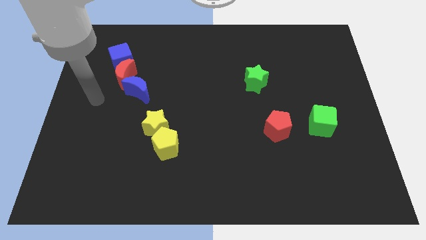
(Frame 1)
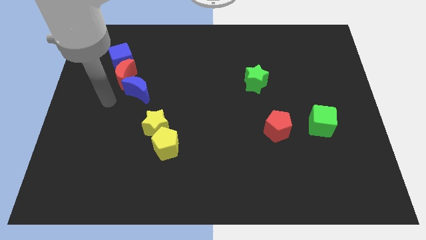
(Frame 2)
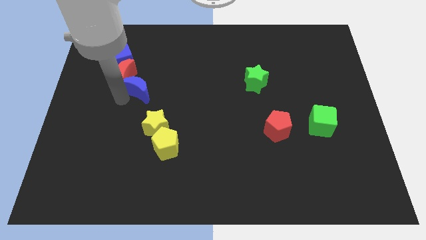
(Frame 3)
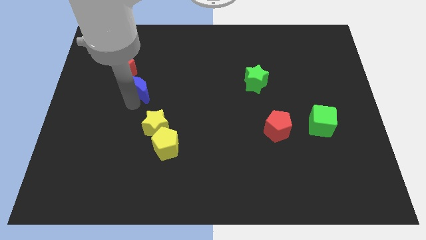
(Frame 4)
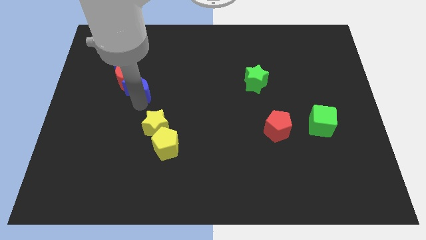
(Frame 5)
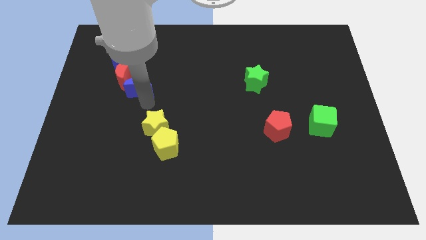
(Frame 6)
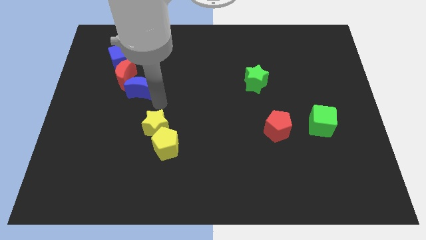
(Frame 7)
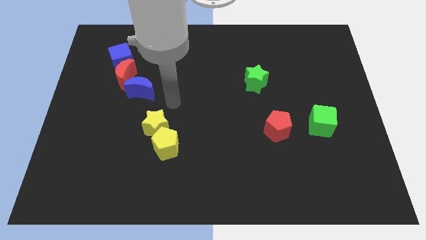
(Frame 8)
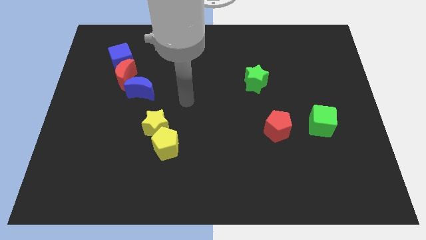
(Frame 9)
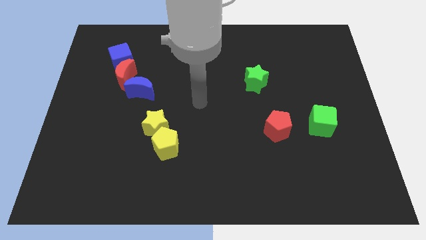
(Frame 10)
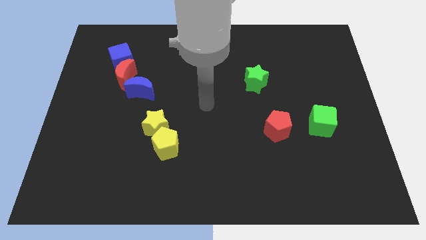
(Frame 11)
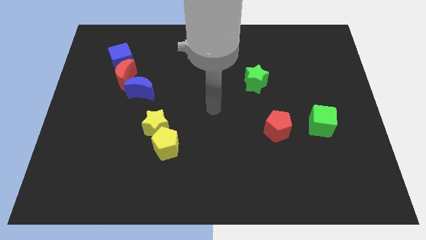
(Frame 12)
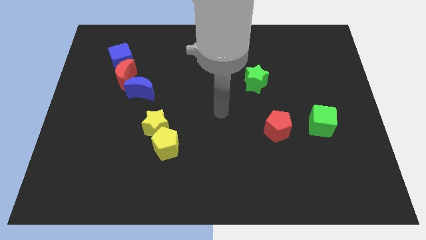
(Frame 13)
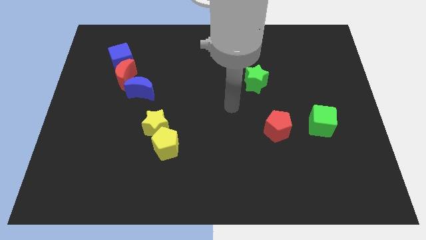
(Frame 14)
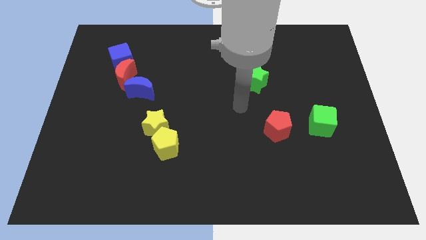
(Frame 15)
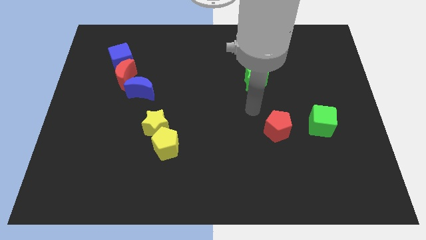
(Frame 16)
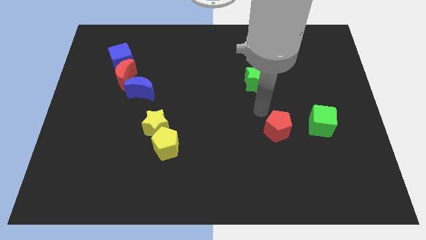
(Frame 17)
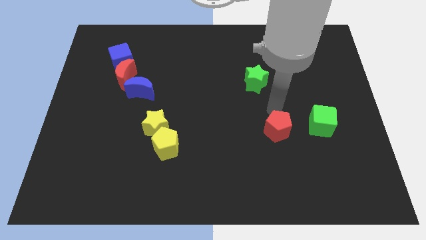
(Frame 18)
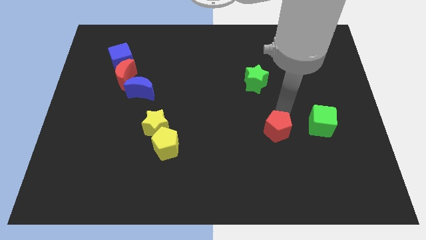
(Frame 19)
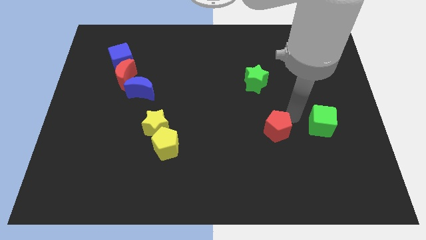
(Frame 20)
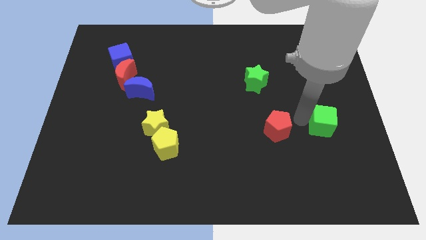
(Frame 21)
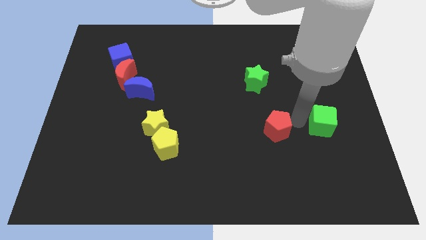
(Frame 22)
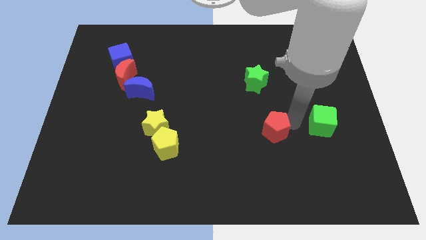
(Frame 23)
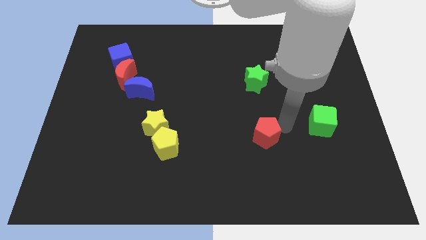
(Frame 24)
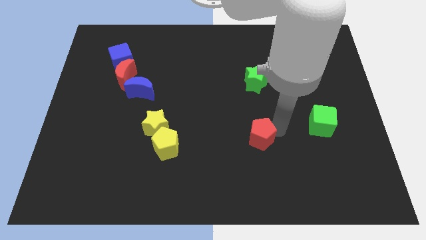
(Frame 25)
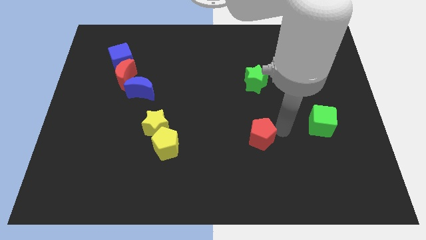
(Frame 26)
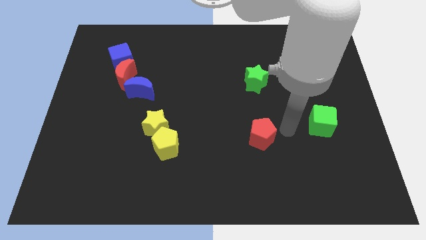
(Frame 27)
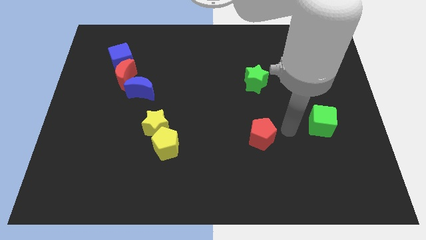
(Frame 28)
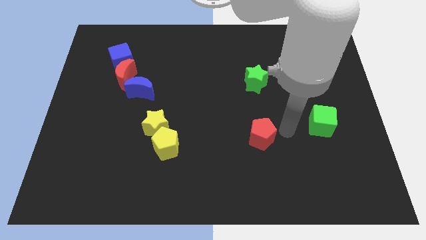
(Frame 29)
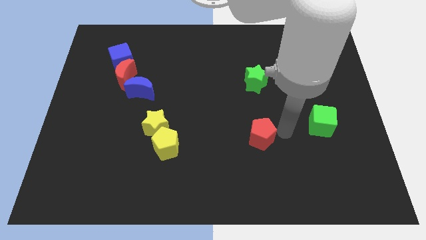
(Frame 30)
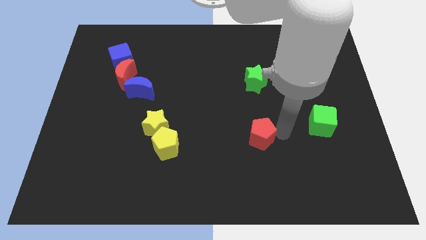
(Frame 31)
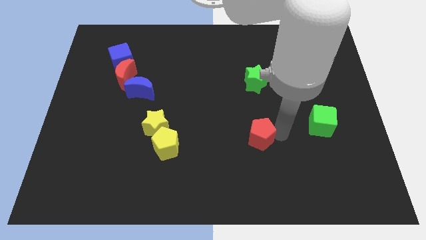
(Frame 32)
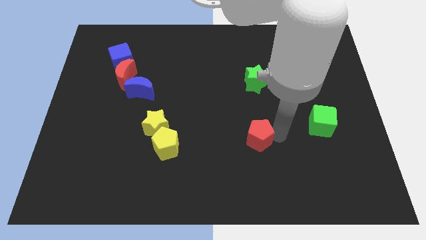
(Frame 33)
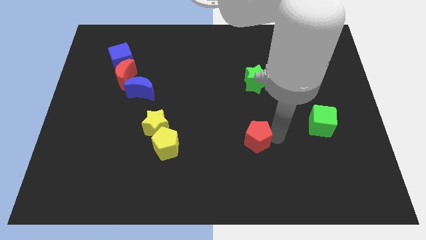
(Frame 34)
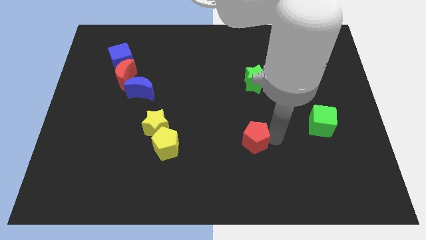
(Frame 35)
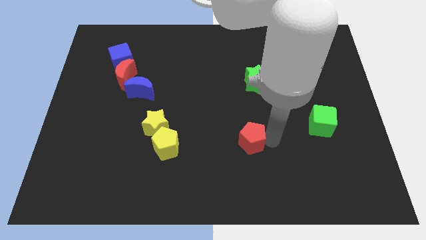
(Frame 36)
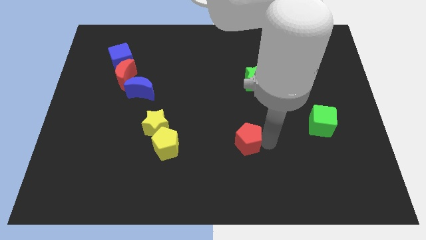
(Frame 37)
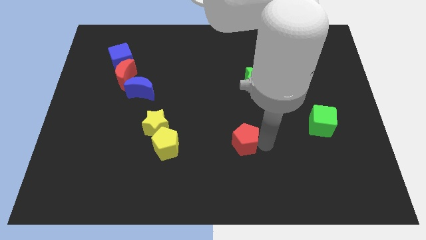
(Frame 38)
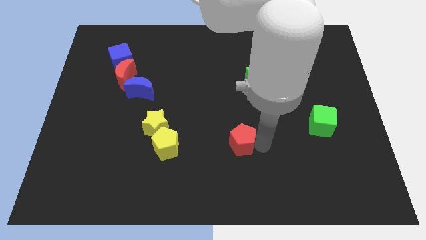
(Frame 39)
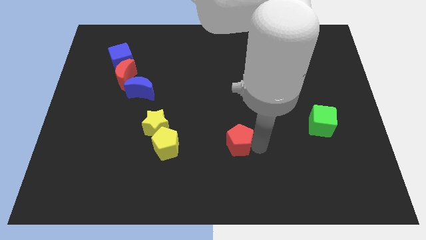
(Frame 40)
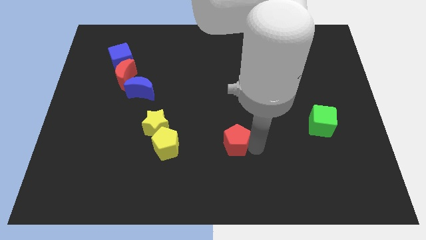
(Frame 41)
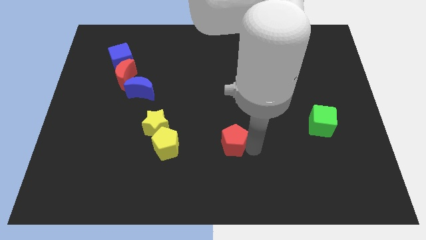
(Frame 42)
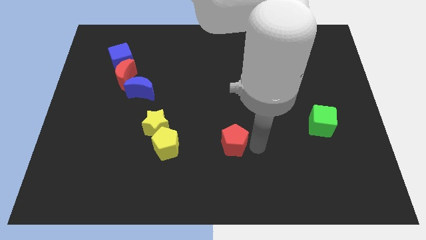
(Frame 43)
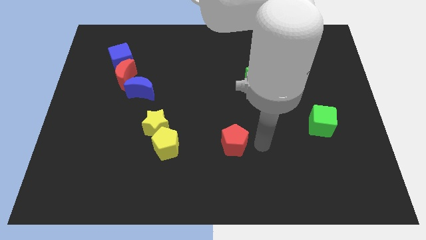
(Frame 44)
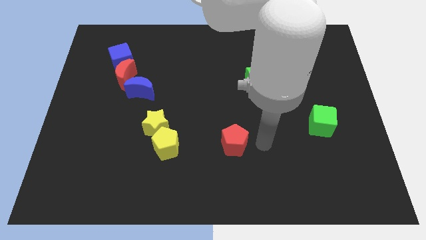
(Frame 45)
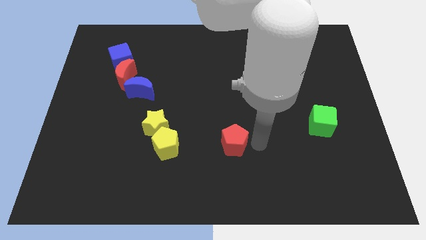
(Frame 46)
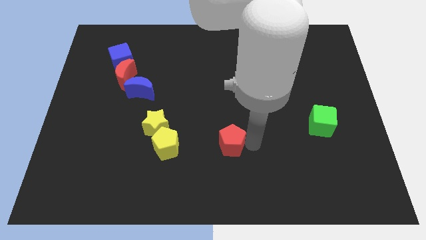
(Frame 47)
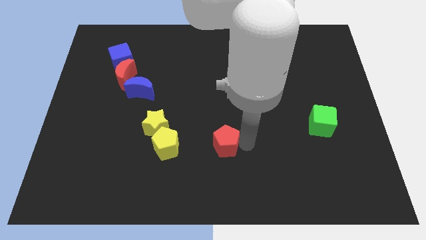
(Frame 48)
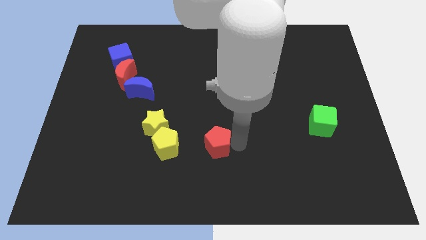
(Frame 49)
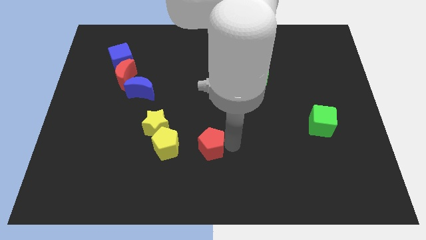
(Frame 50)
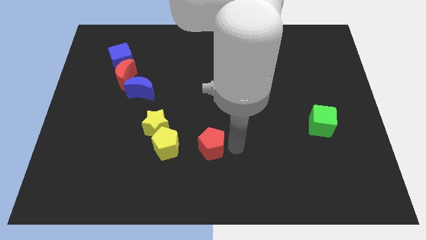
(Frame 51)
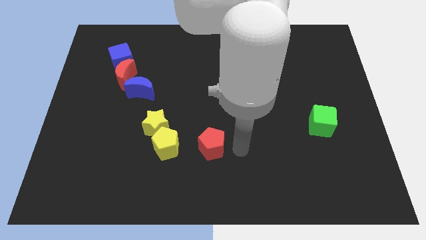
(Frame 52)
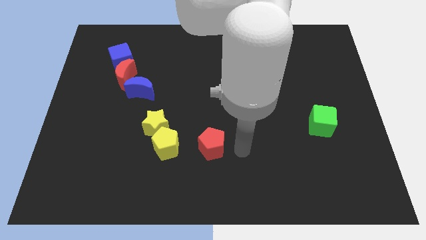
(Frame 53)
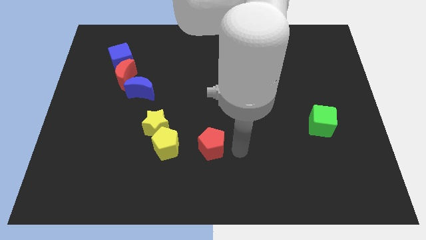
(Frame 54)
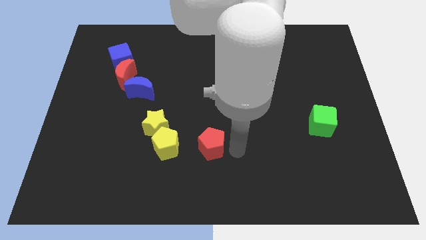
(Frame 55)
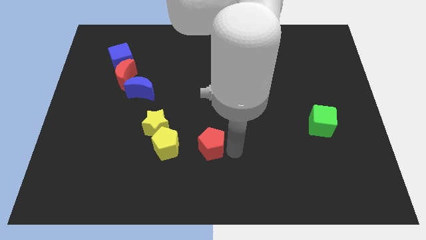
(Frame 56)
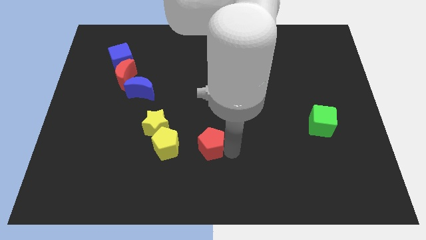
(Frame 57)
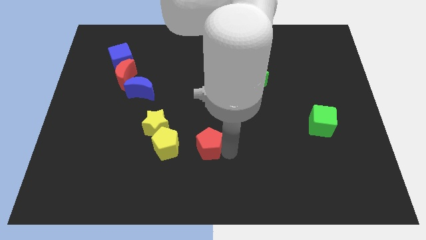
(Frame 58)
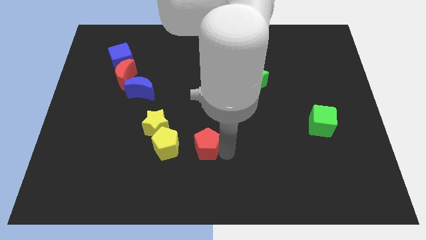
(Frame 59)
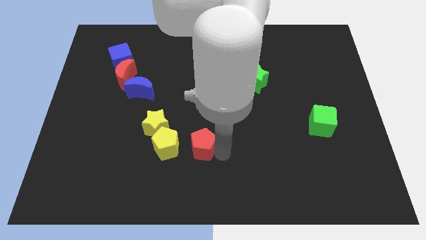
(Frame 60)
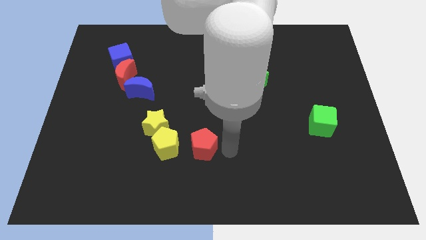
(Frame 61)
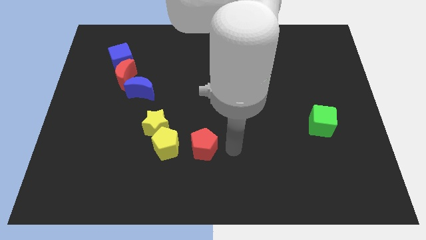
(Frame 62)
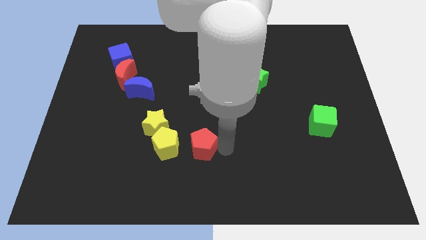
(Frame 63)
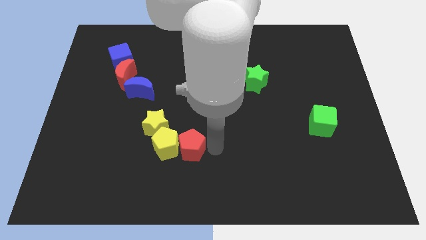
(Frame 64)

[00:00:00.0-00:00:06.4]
put the red pentagon close to the yellow pentagon
